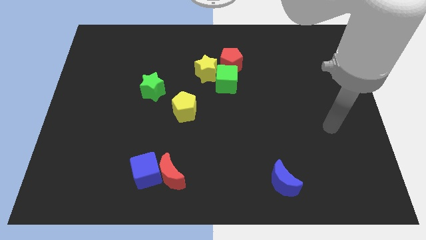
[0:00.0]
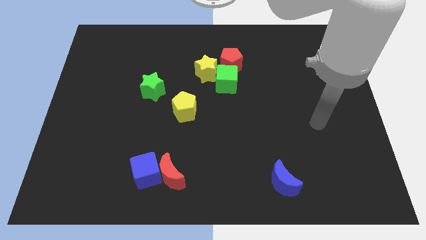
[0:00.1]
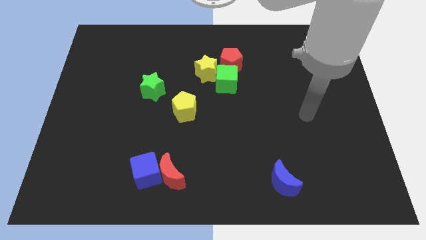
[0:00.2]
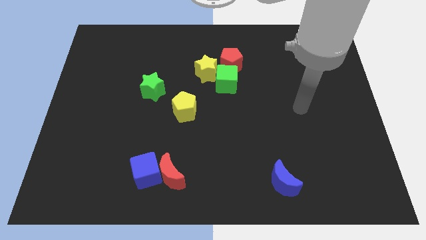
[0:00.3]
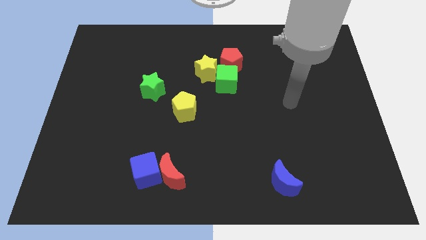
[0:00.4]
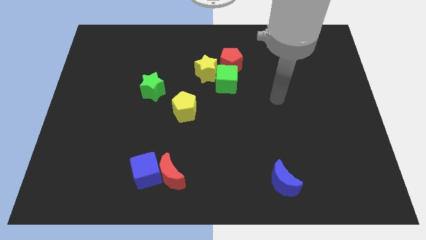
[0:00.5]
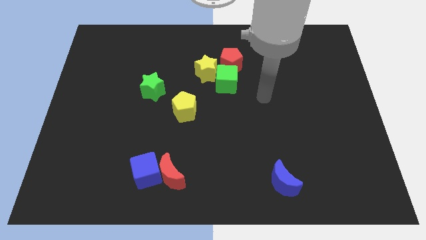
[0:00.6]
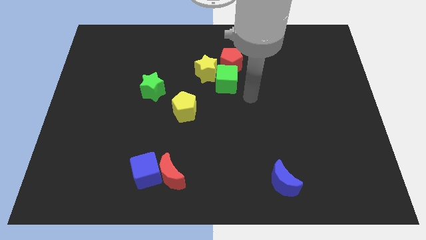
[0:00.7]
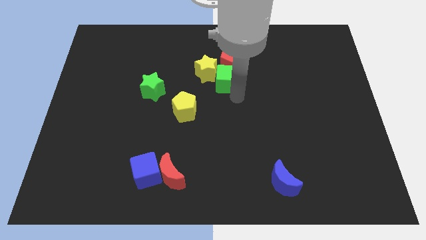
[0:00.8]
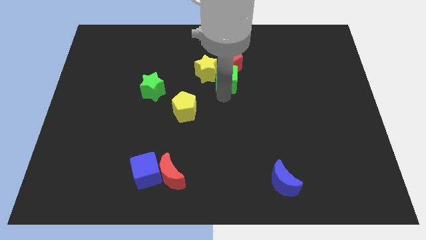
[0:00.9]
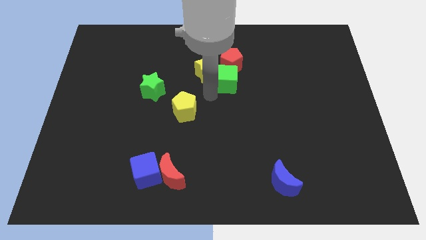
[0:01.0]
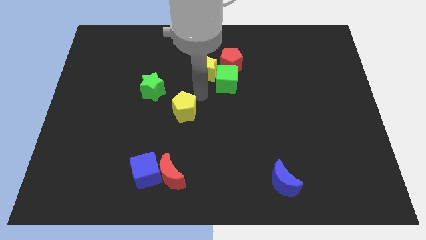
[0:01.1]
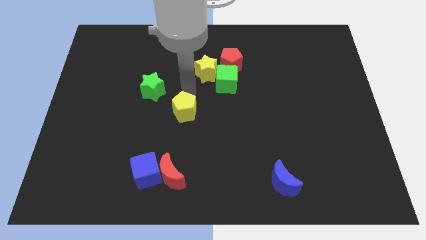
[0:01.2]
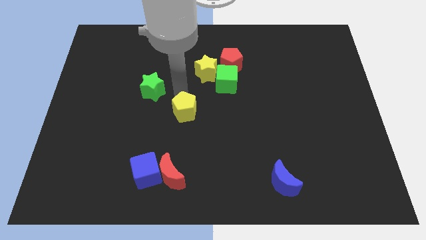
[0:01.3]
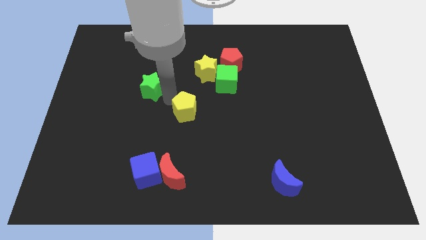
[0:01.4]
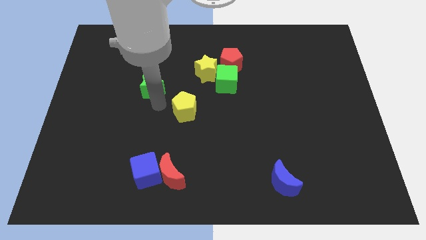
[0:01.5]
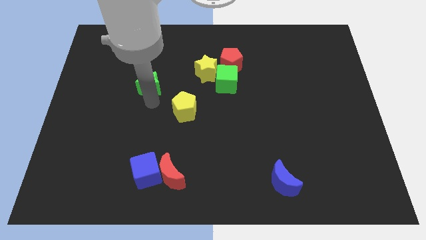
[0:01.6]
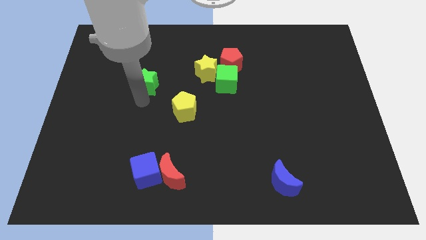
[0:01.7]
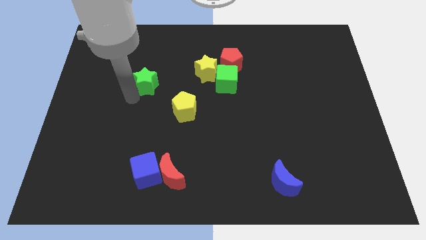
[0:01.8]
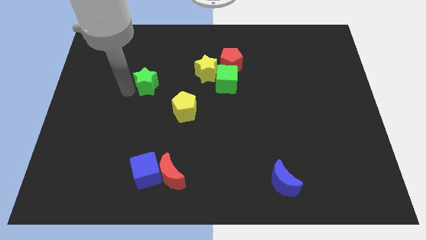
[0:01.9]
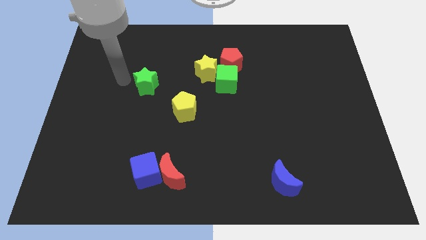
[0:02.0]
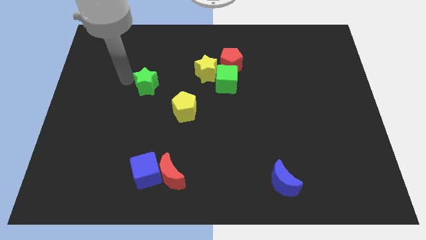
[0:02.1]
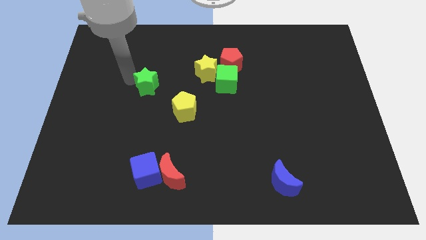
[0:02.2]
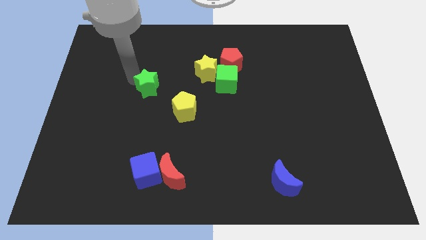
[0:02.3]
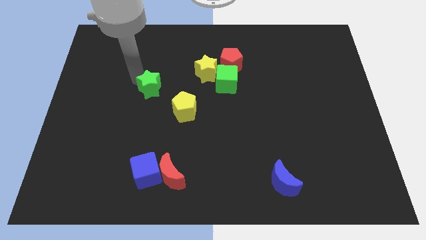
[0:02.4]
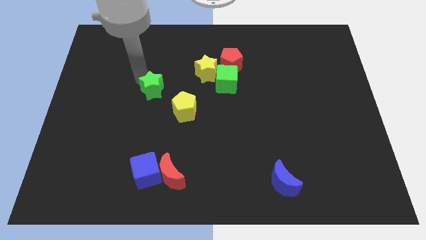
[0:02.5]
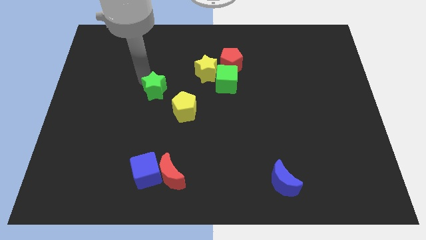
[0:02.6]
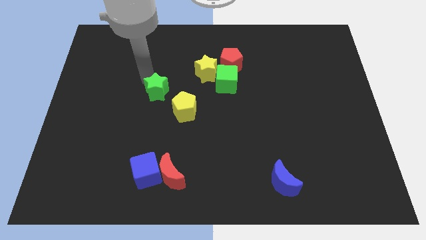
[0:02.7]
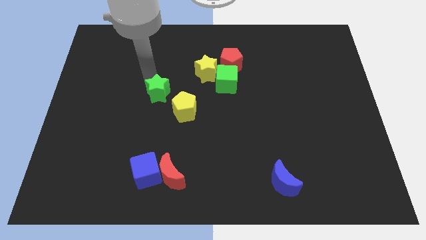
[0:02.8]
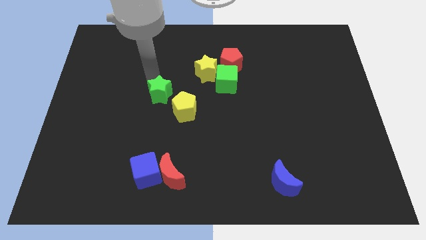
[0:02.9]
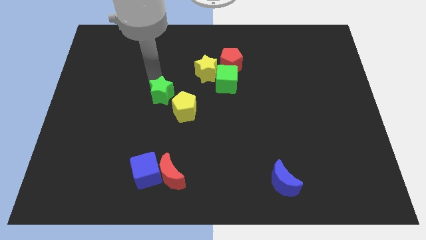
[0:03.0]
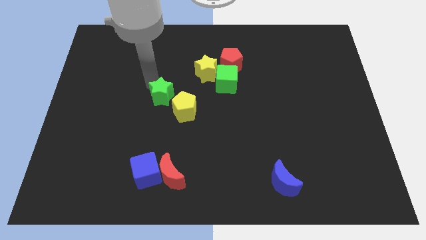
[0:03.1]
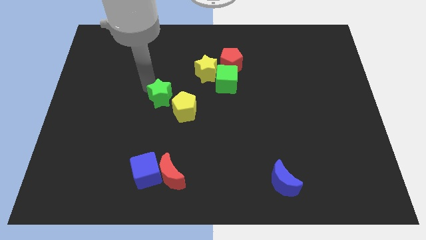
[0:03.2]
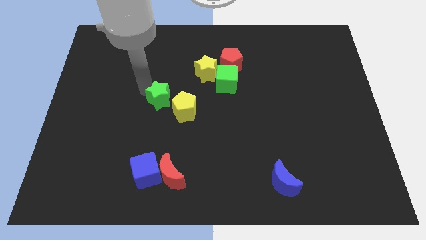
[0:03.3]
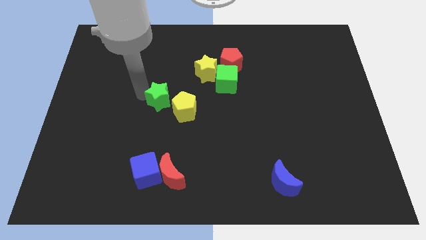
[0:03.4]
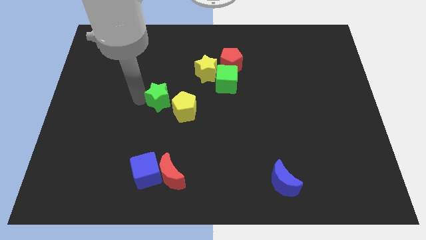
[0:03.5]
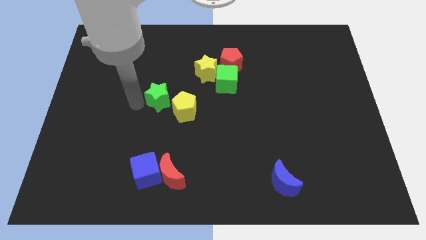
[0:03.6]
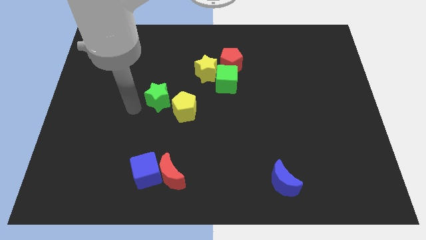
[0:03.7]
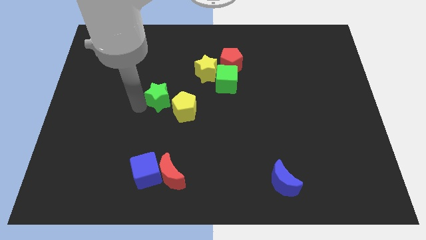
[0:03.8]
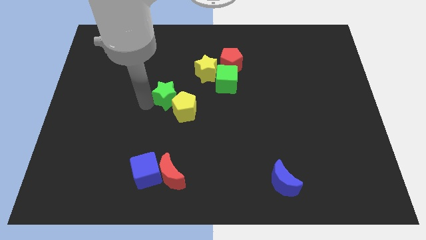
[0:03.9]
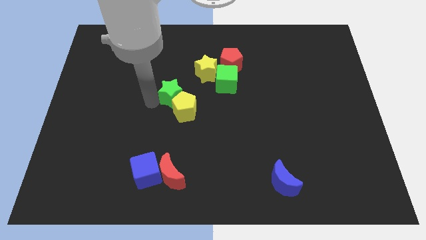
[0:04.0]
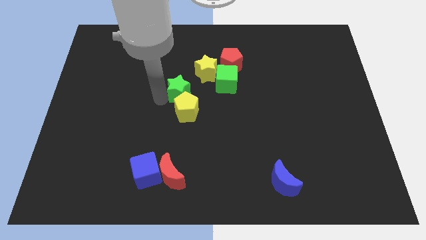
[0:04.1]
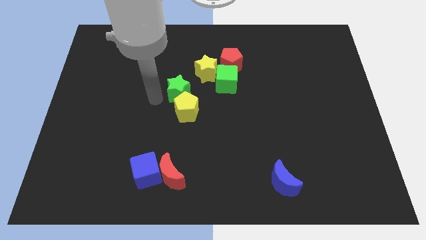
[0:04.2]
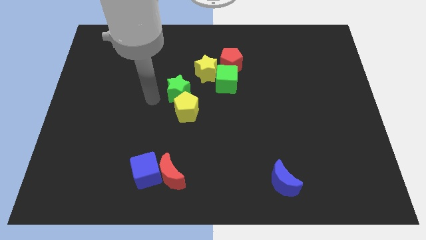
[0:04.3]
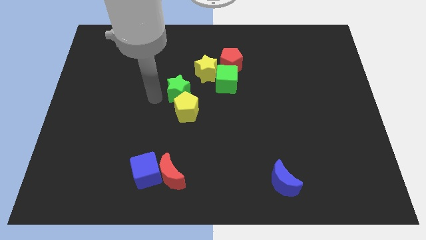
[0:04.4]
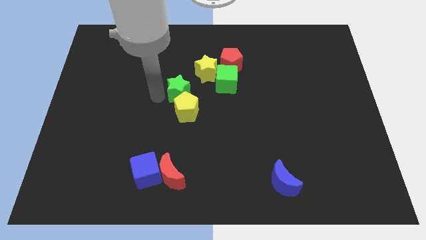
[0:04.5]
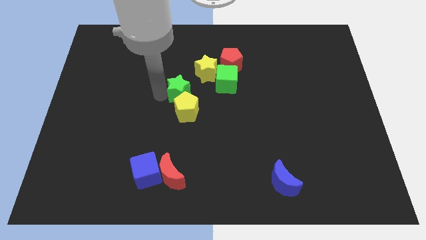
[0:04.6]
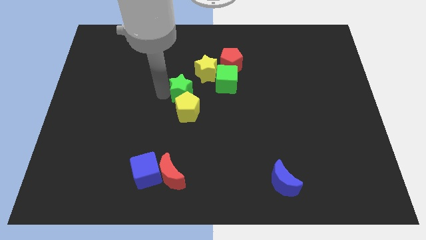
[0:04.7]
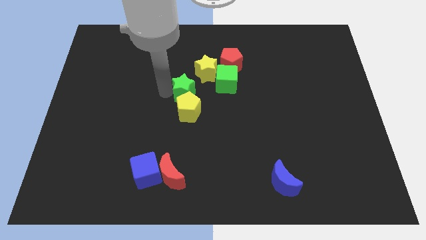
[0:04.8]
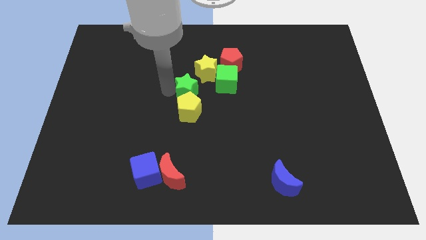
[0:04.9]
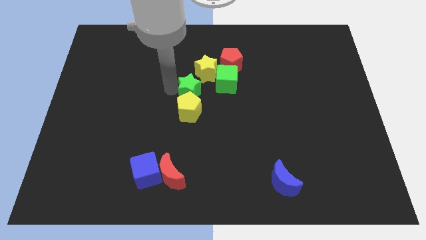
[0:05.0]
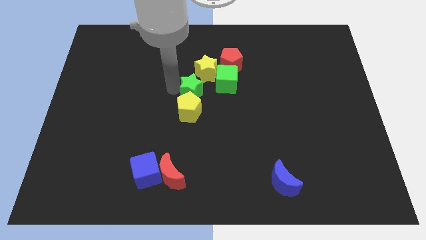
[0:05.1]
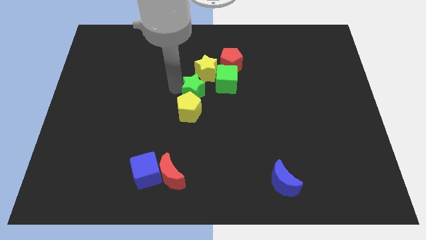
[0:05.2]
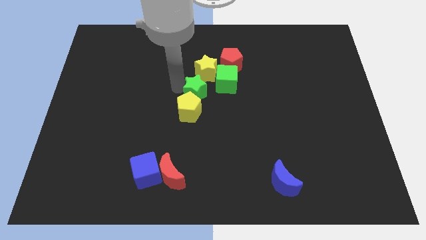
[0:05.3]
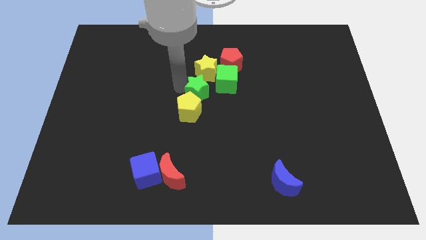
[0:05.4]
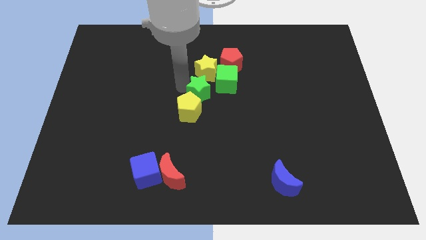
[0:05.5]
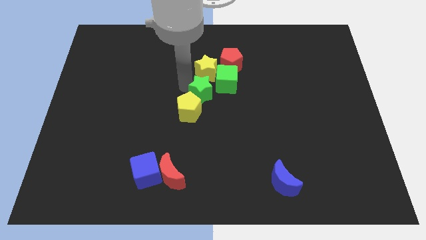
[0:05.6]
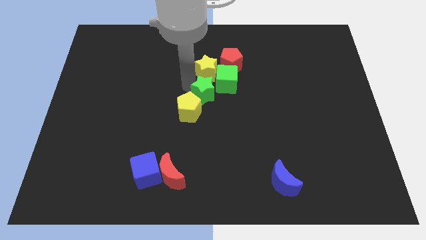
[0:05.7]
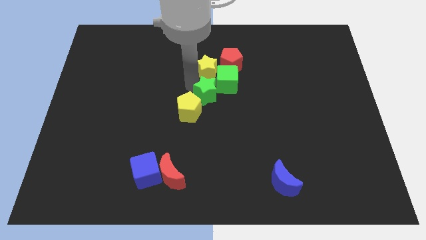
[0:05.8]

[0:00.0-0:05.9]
slide the green star to the green cube

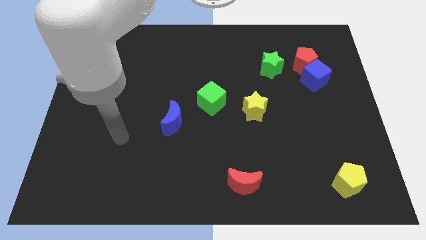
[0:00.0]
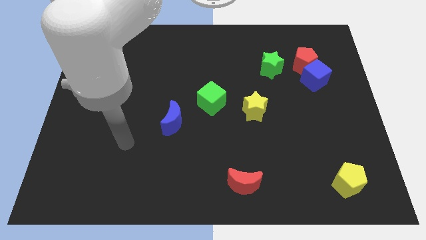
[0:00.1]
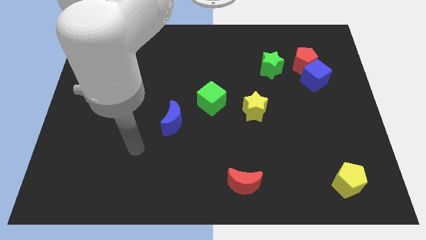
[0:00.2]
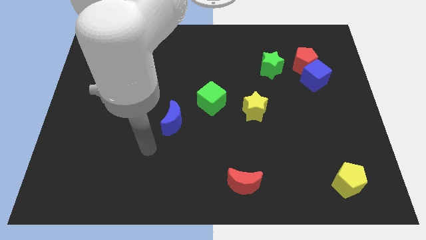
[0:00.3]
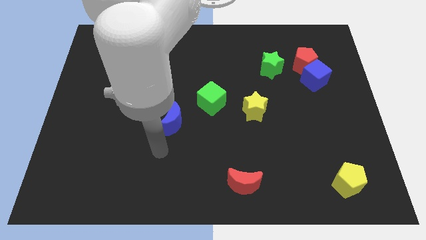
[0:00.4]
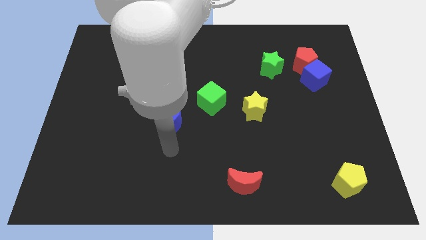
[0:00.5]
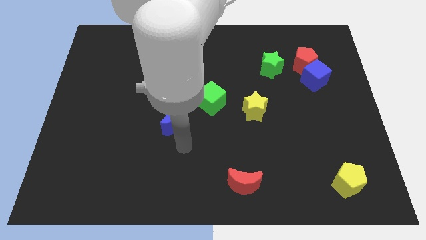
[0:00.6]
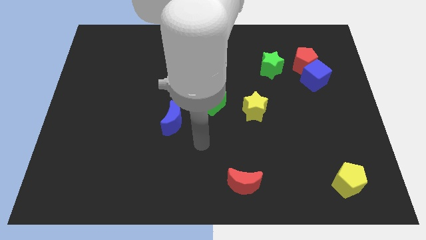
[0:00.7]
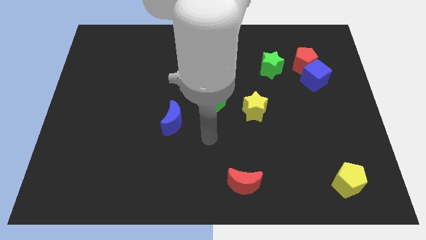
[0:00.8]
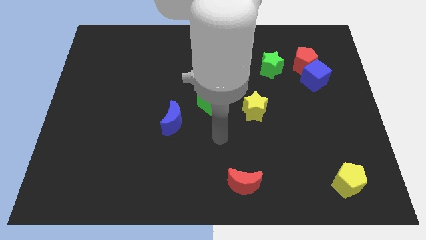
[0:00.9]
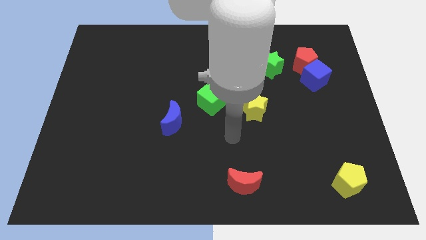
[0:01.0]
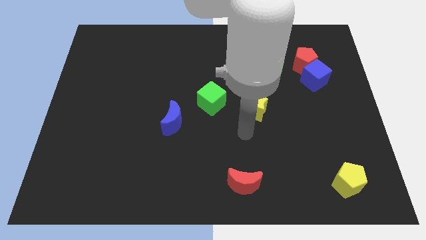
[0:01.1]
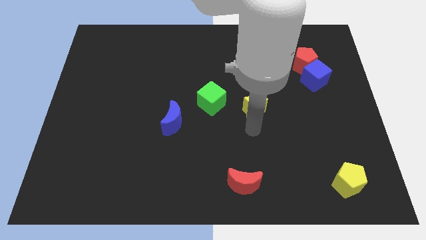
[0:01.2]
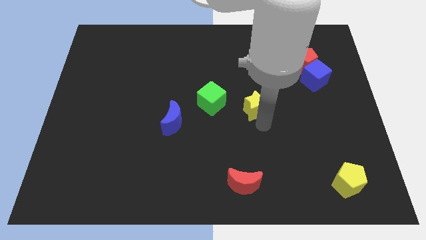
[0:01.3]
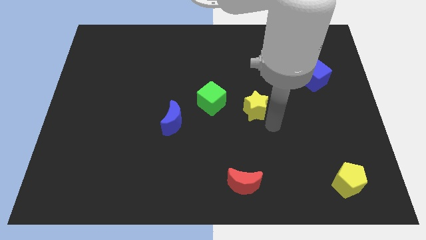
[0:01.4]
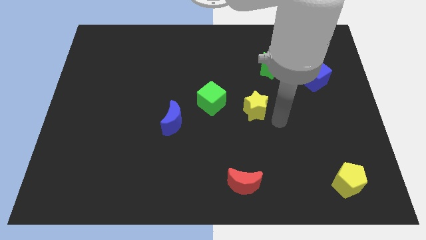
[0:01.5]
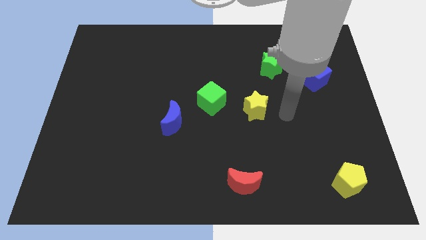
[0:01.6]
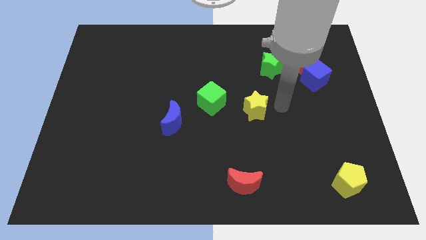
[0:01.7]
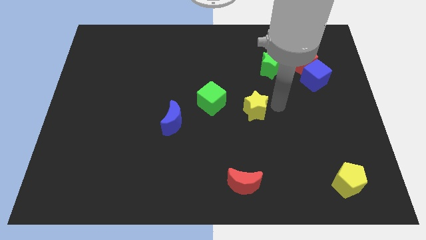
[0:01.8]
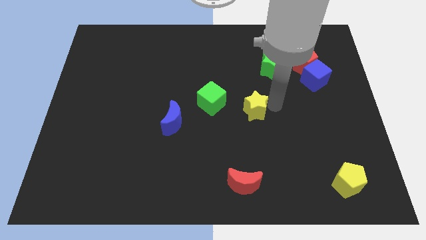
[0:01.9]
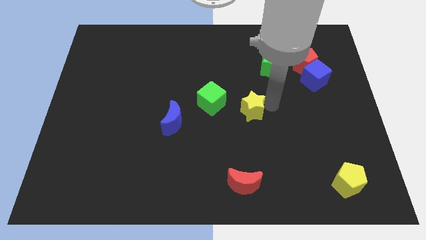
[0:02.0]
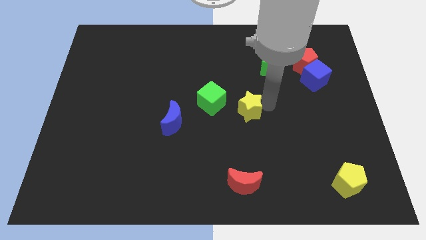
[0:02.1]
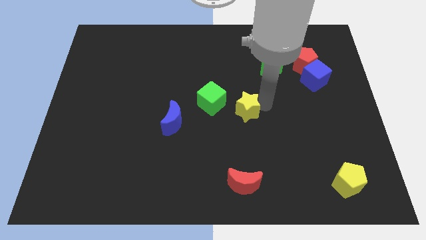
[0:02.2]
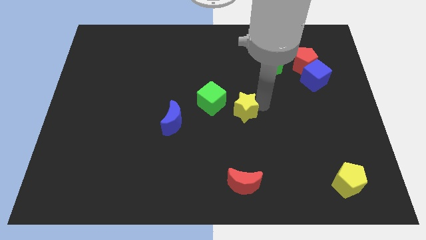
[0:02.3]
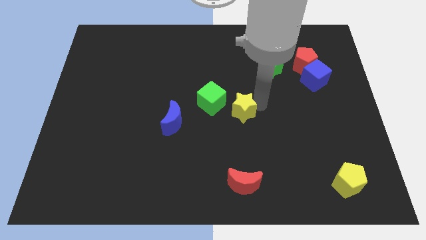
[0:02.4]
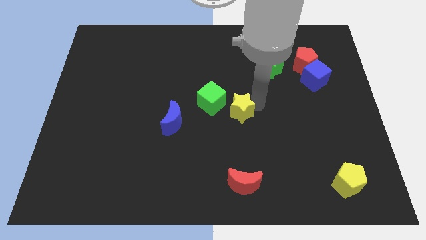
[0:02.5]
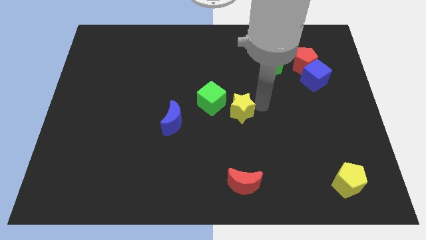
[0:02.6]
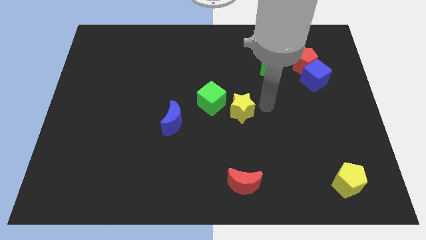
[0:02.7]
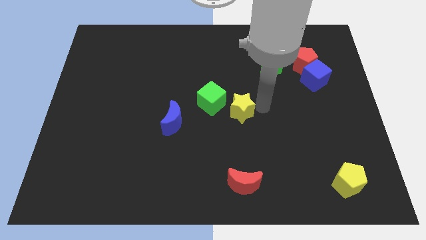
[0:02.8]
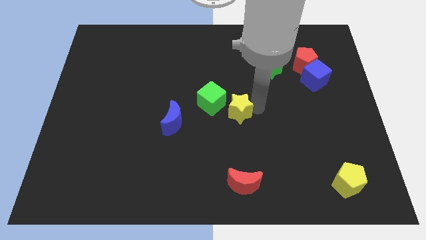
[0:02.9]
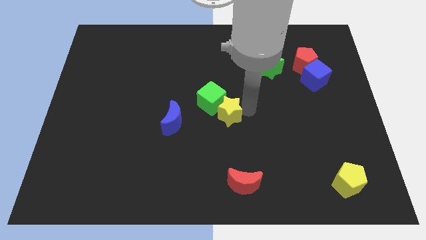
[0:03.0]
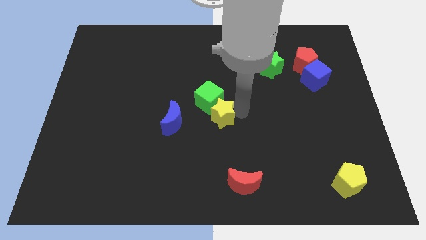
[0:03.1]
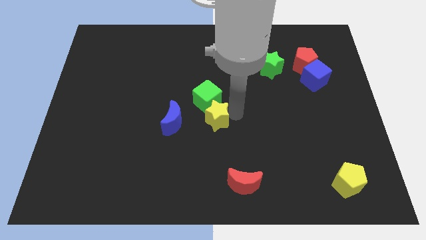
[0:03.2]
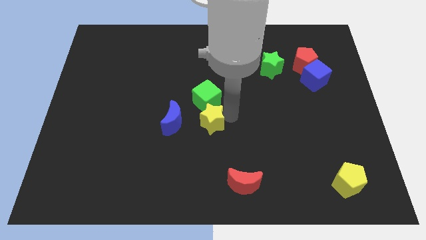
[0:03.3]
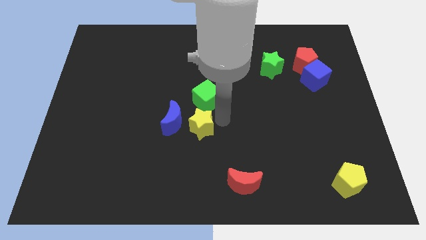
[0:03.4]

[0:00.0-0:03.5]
move the yellow star close to the blue moon
